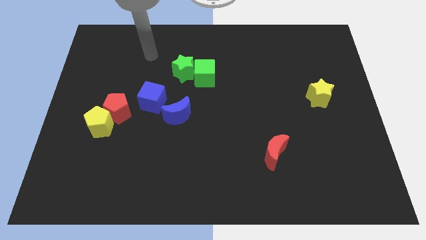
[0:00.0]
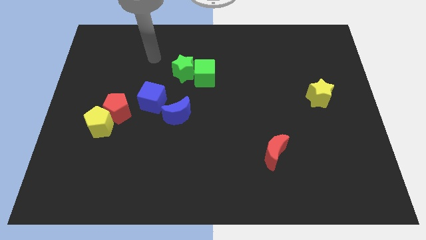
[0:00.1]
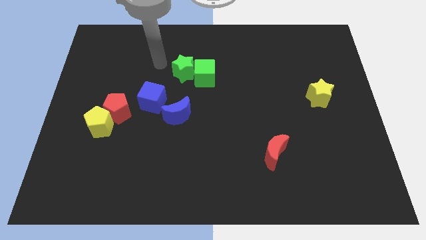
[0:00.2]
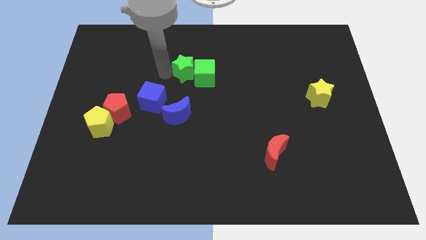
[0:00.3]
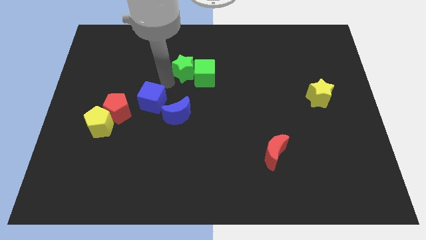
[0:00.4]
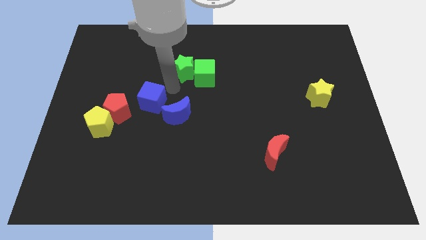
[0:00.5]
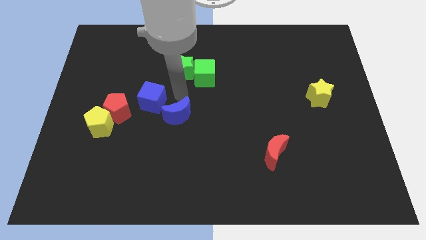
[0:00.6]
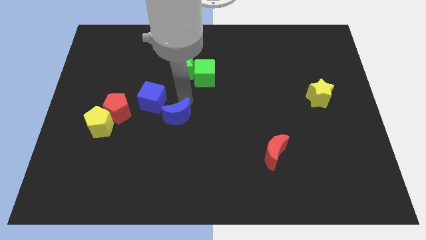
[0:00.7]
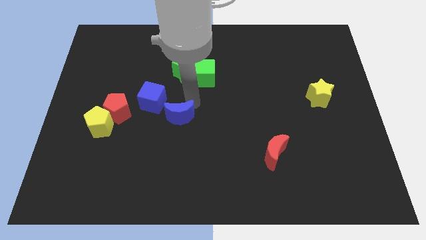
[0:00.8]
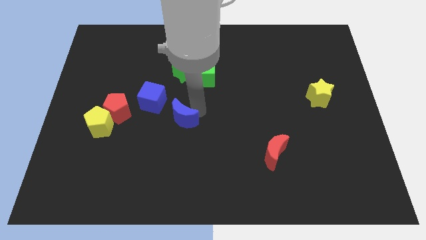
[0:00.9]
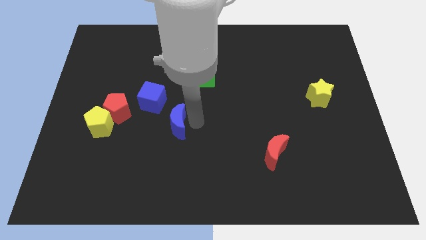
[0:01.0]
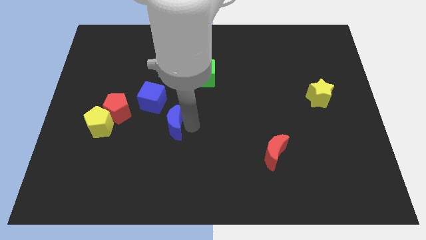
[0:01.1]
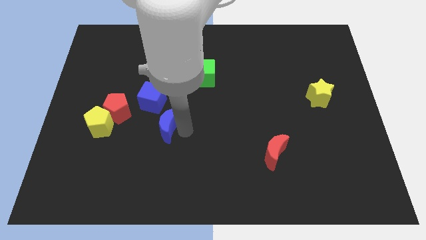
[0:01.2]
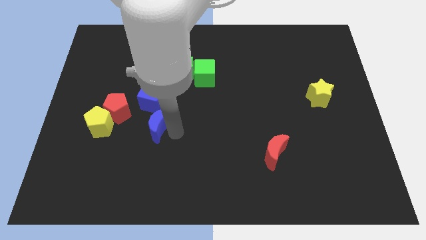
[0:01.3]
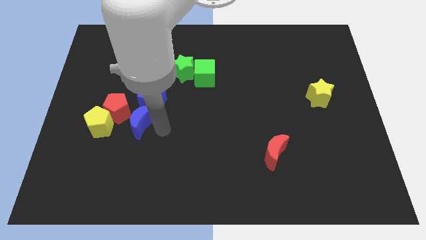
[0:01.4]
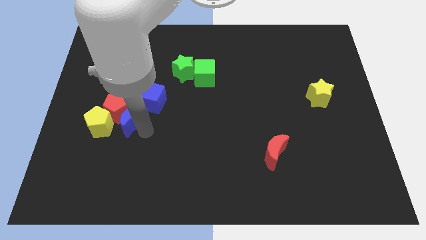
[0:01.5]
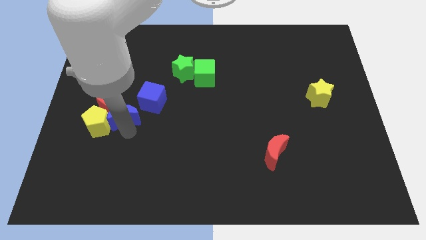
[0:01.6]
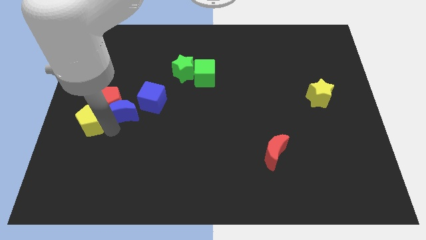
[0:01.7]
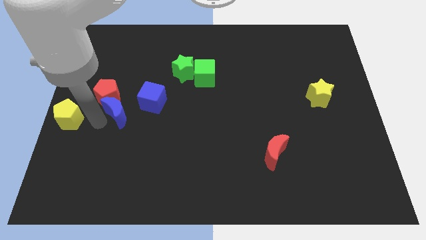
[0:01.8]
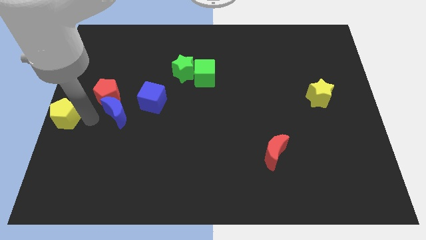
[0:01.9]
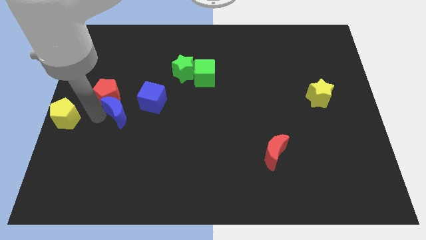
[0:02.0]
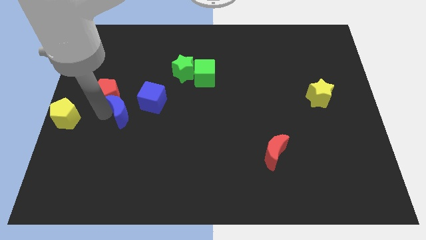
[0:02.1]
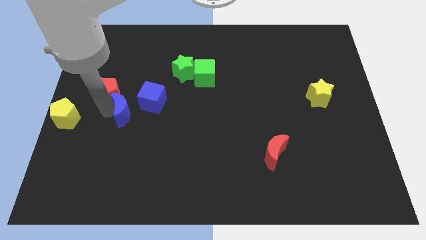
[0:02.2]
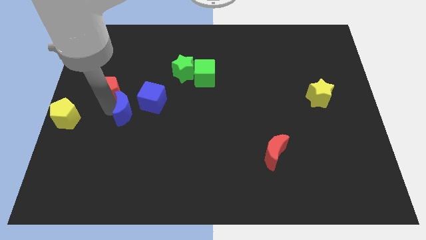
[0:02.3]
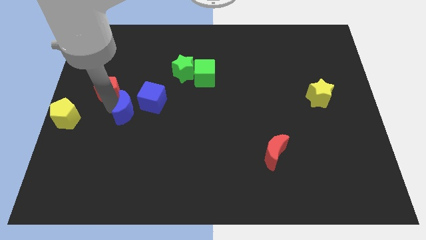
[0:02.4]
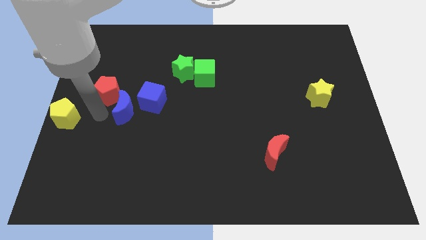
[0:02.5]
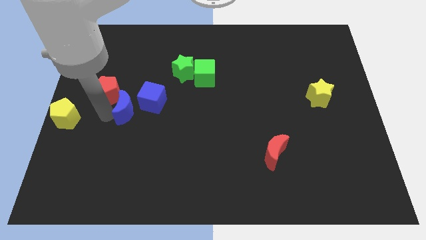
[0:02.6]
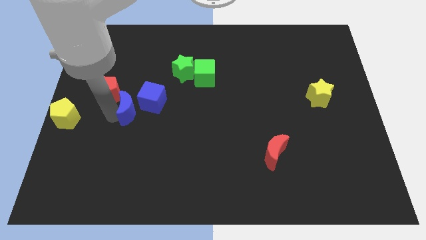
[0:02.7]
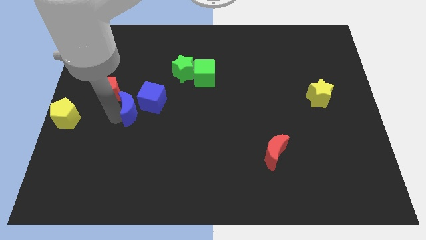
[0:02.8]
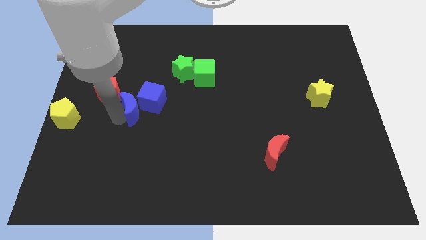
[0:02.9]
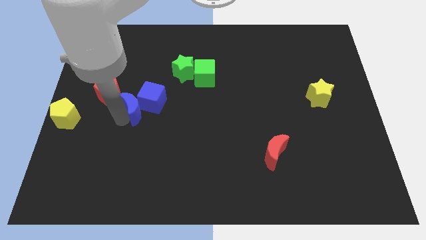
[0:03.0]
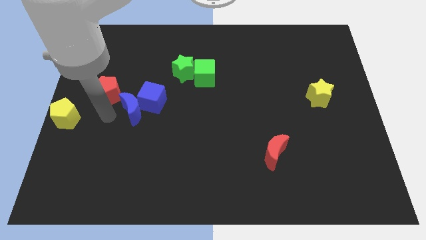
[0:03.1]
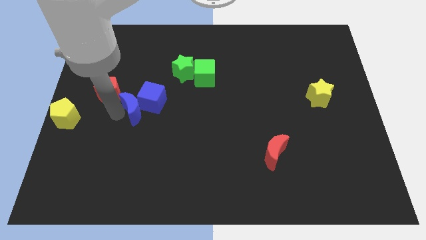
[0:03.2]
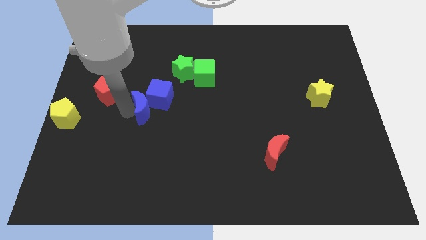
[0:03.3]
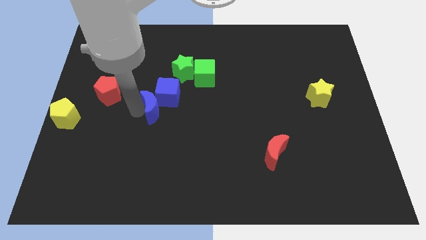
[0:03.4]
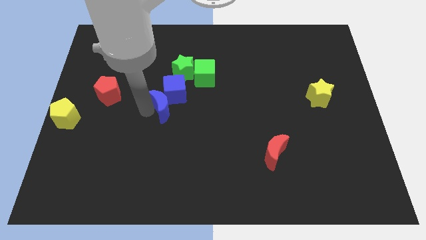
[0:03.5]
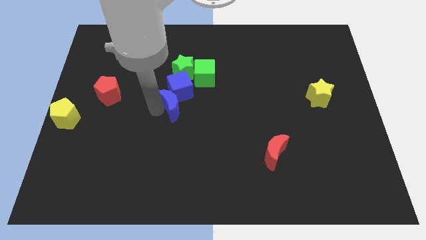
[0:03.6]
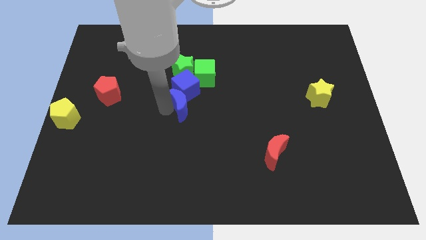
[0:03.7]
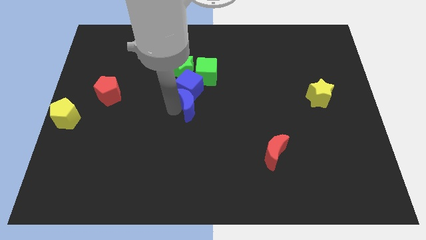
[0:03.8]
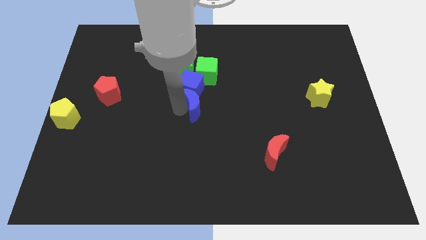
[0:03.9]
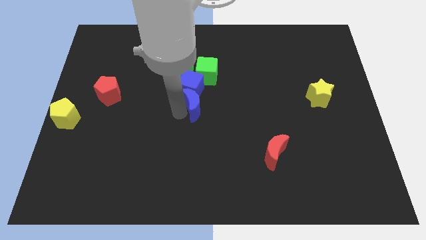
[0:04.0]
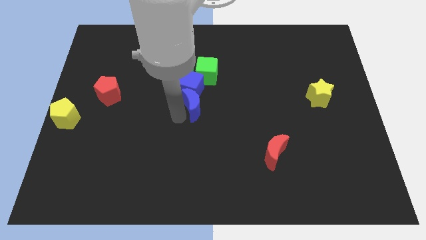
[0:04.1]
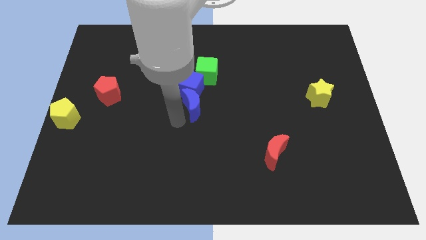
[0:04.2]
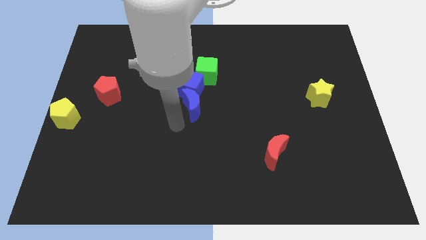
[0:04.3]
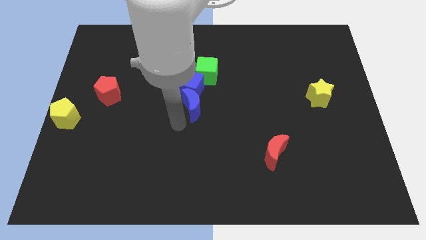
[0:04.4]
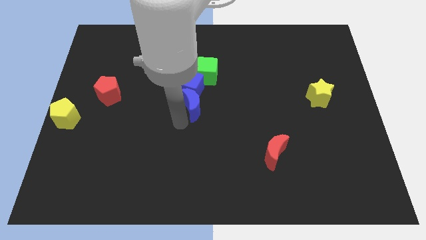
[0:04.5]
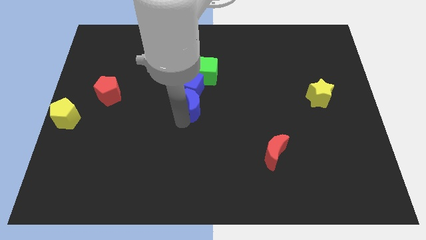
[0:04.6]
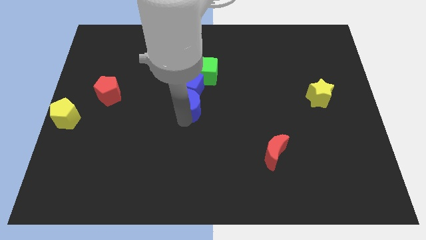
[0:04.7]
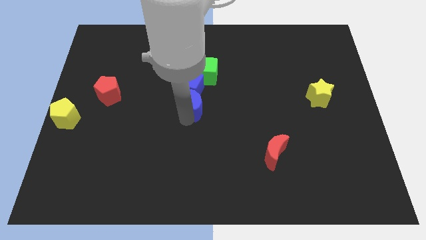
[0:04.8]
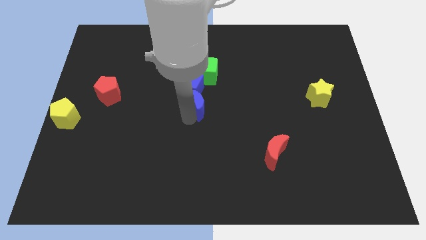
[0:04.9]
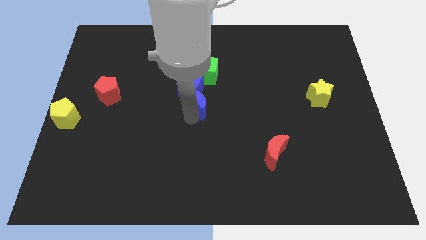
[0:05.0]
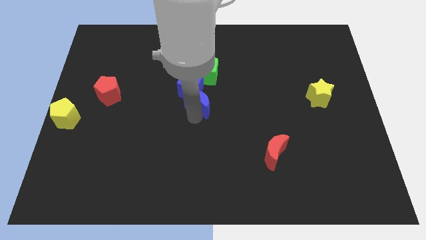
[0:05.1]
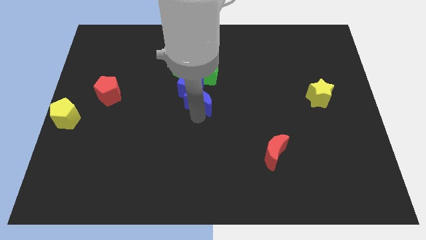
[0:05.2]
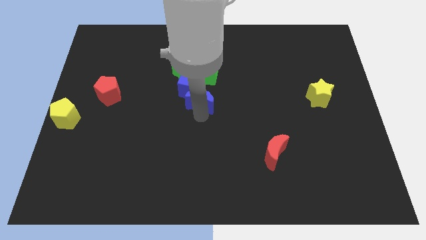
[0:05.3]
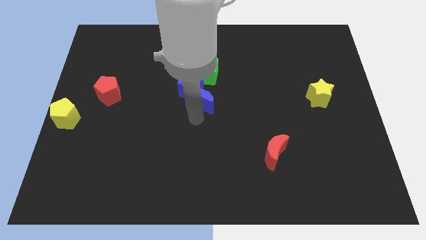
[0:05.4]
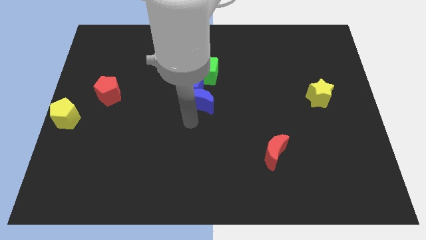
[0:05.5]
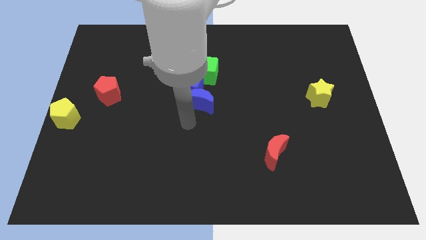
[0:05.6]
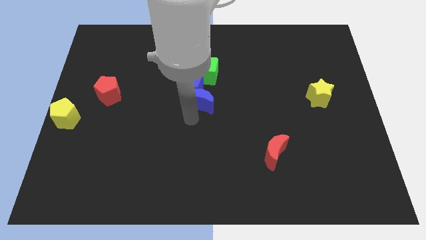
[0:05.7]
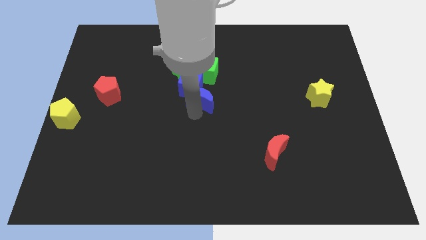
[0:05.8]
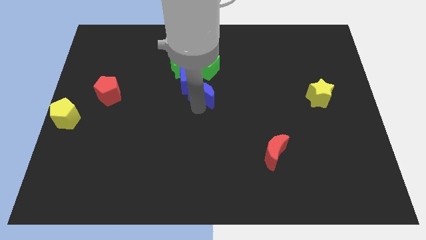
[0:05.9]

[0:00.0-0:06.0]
slightly slide the blue moon upwards and to the right diagonally

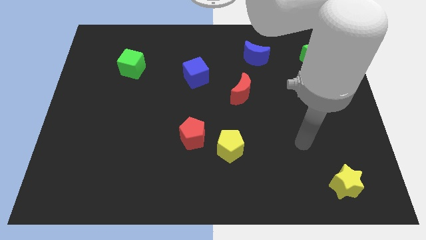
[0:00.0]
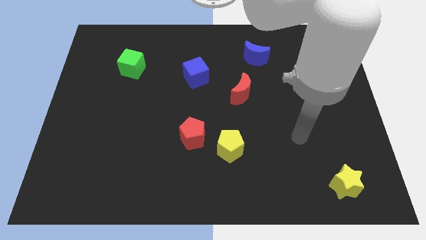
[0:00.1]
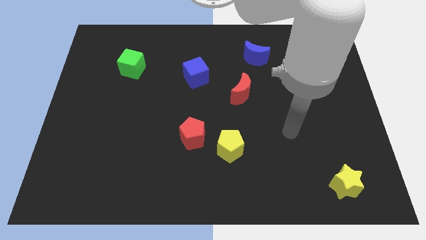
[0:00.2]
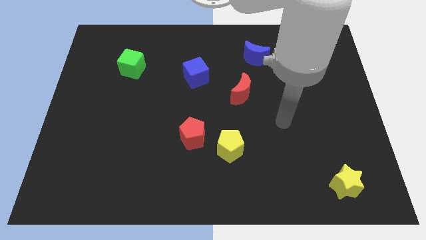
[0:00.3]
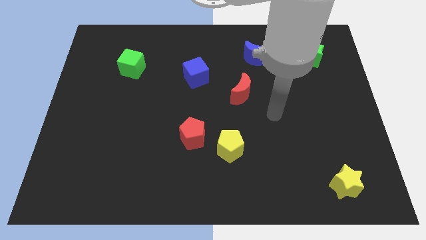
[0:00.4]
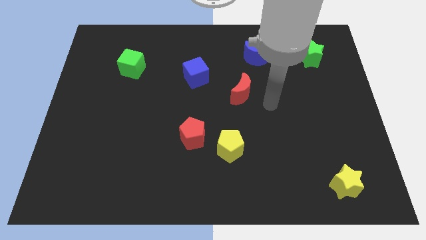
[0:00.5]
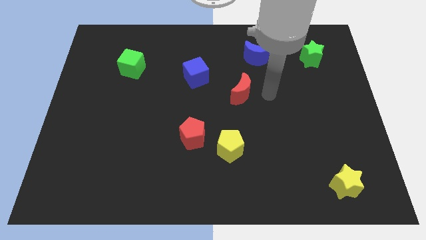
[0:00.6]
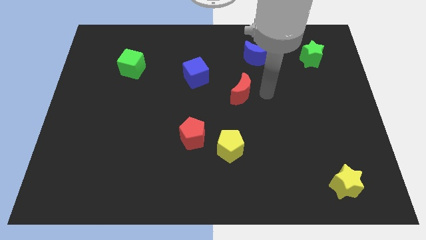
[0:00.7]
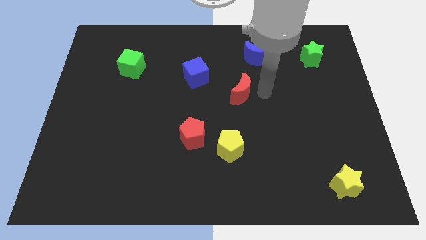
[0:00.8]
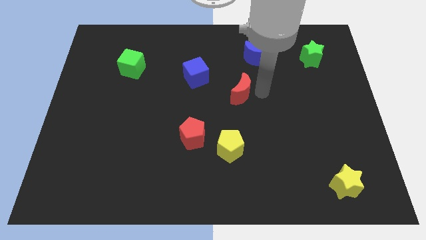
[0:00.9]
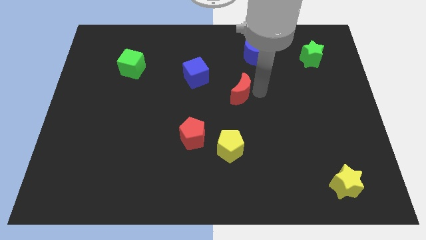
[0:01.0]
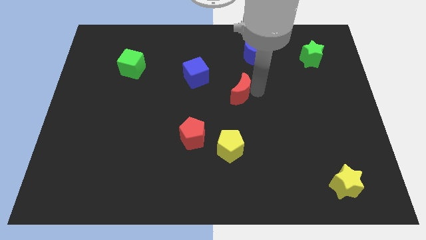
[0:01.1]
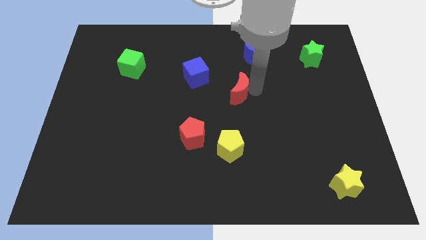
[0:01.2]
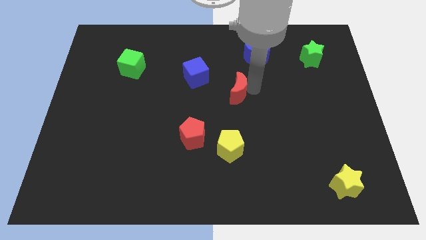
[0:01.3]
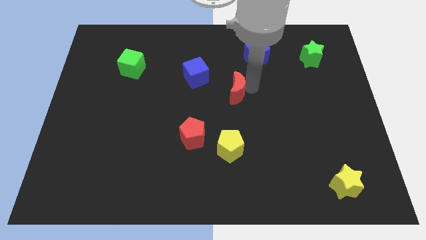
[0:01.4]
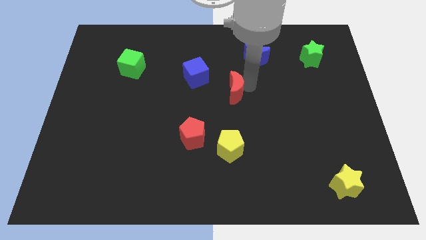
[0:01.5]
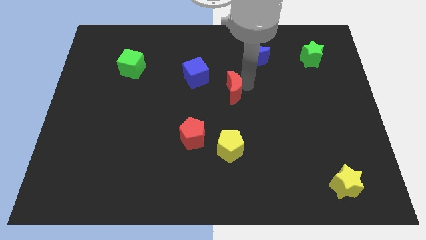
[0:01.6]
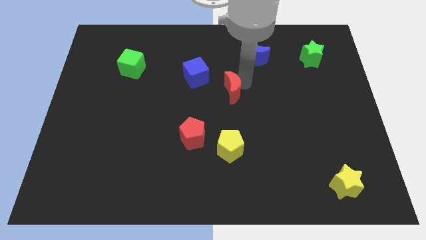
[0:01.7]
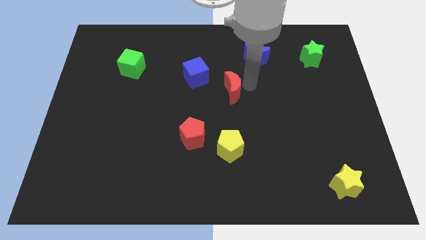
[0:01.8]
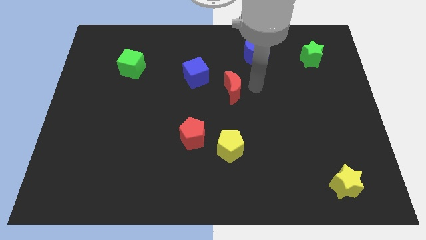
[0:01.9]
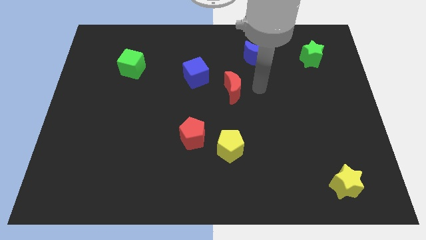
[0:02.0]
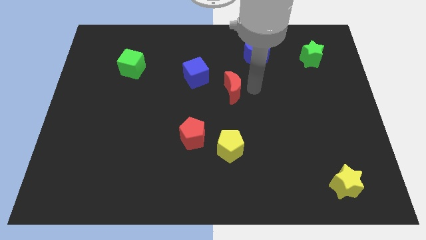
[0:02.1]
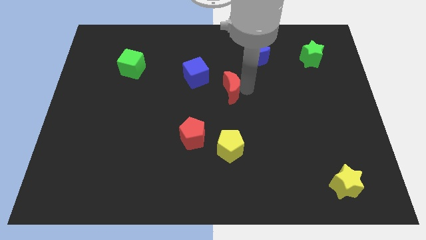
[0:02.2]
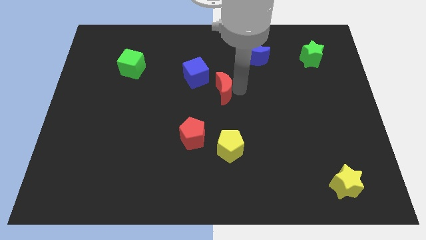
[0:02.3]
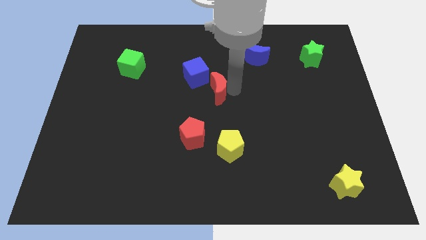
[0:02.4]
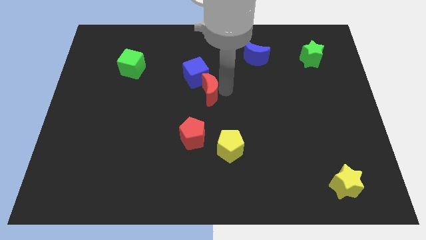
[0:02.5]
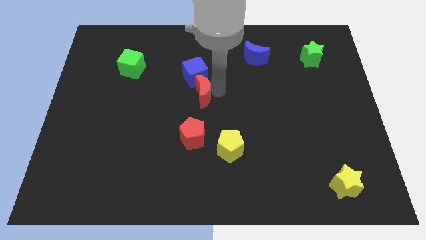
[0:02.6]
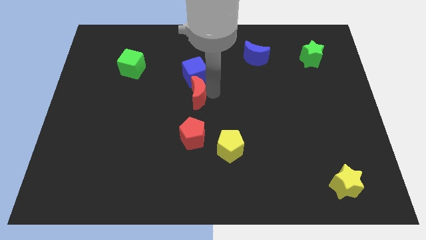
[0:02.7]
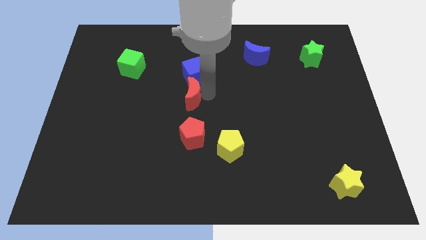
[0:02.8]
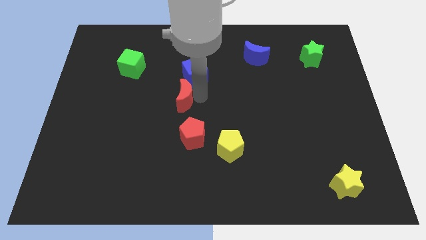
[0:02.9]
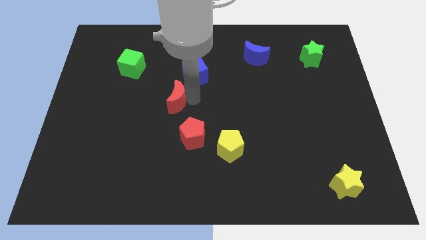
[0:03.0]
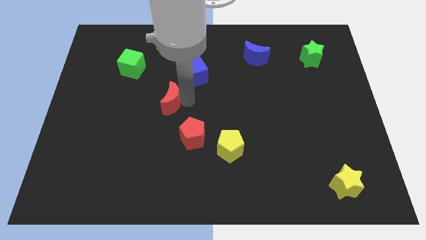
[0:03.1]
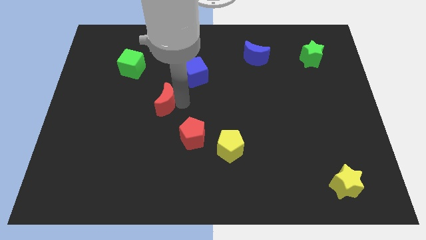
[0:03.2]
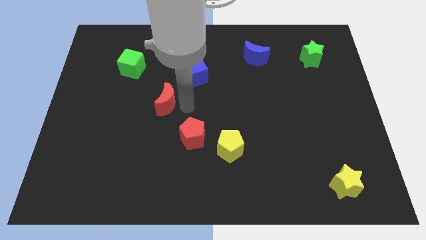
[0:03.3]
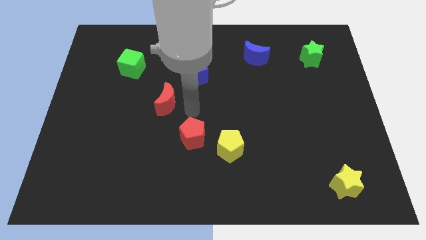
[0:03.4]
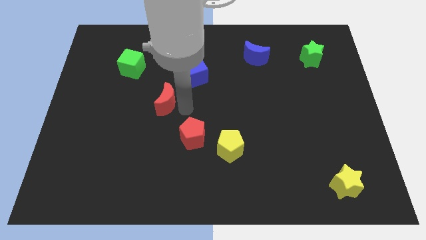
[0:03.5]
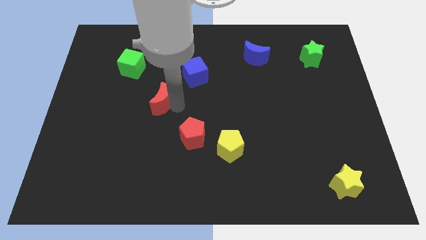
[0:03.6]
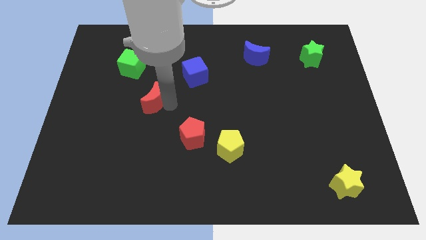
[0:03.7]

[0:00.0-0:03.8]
move the red moon to the left
